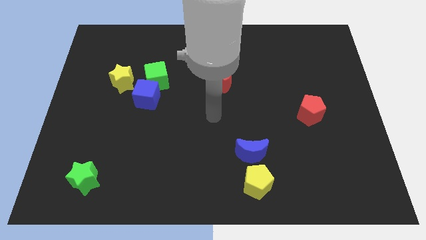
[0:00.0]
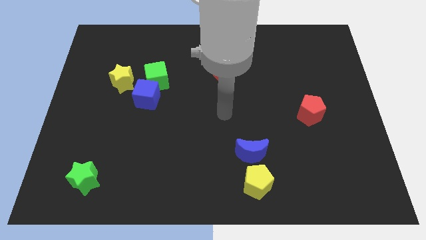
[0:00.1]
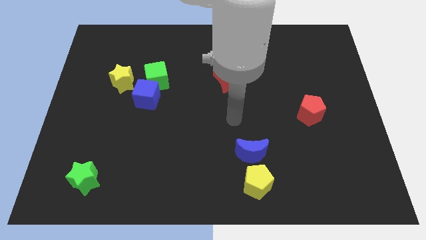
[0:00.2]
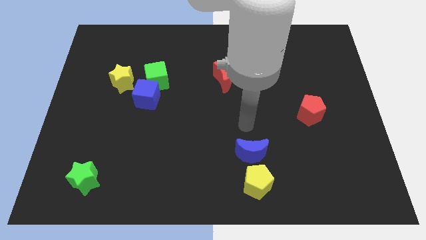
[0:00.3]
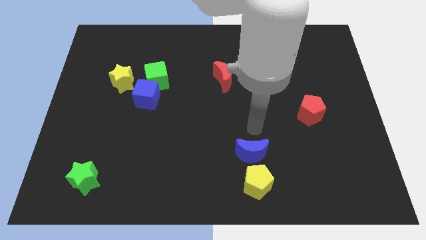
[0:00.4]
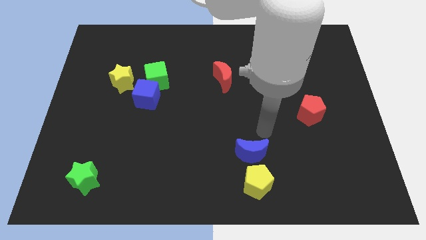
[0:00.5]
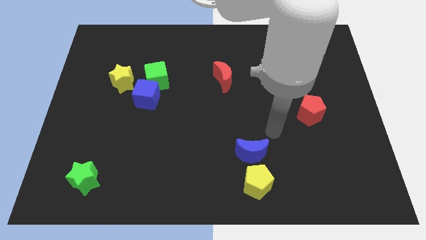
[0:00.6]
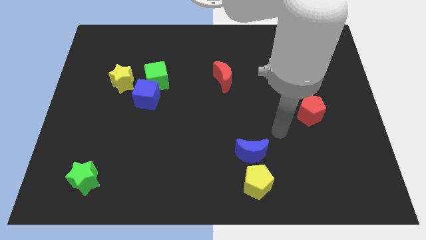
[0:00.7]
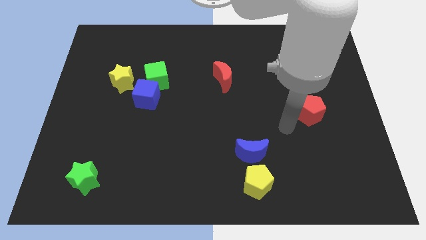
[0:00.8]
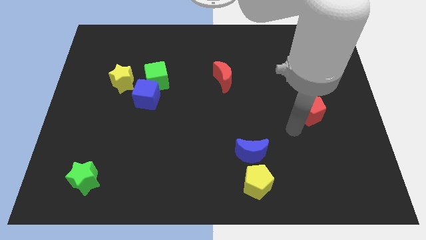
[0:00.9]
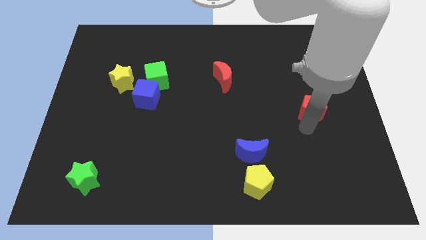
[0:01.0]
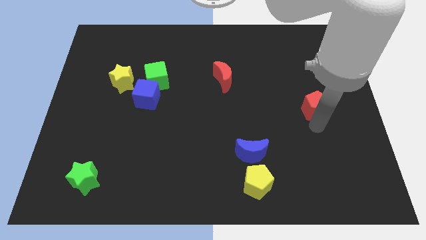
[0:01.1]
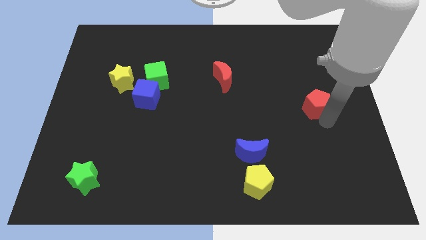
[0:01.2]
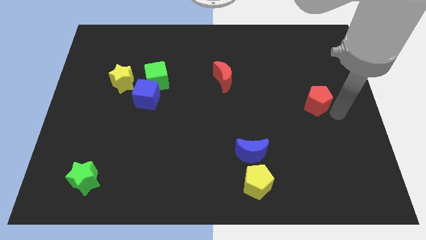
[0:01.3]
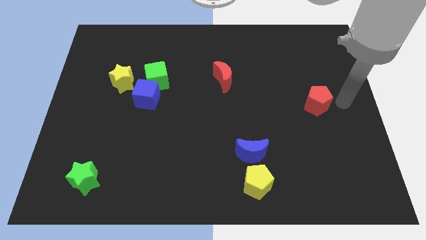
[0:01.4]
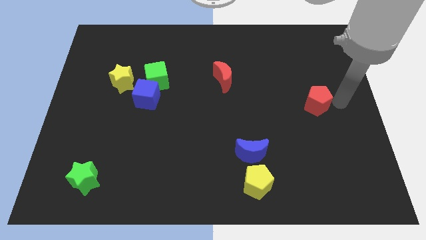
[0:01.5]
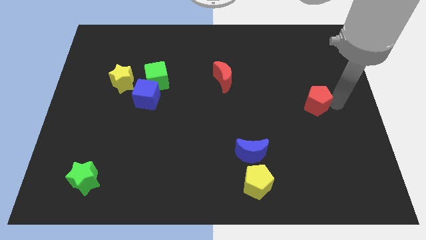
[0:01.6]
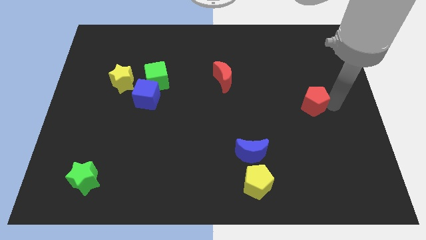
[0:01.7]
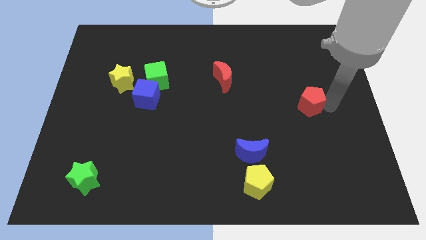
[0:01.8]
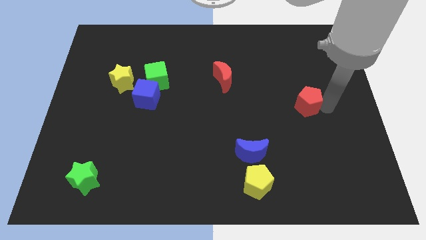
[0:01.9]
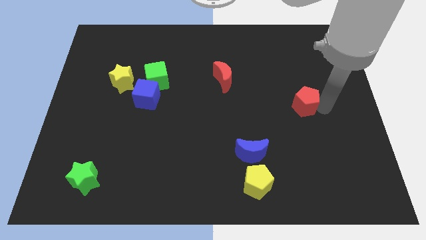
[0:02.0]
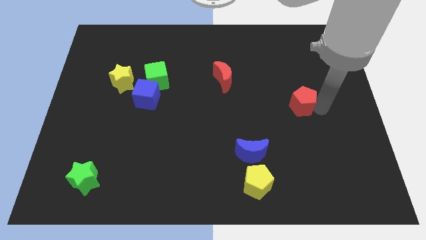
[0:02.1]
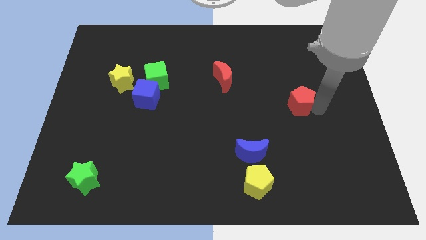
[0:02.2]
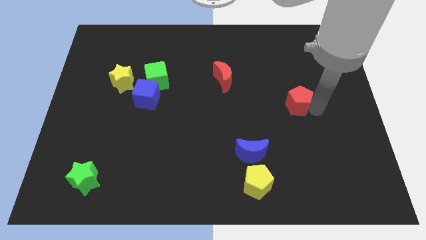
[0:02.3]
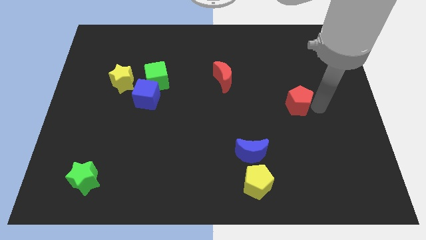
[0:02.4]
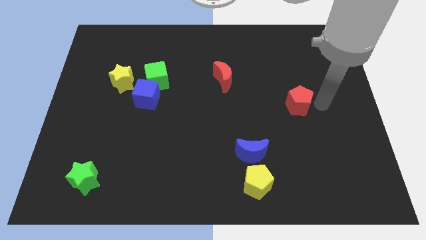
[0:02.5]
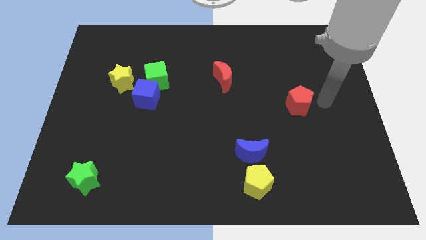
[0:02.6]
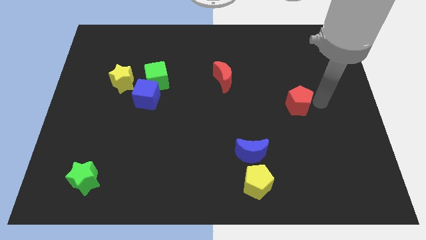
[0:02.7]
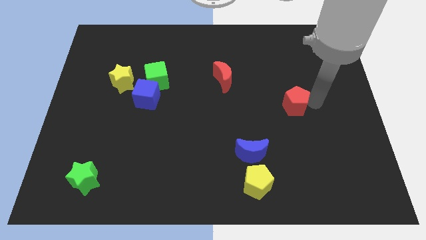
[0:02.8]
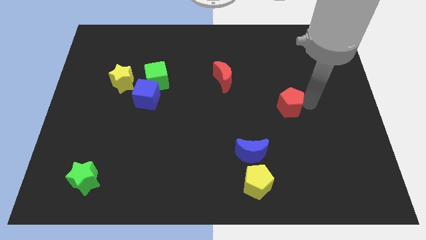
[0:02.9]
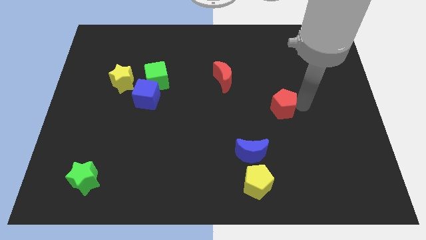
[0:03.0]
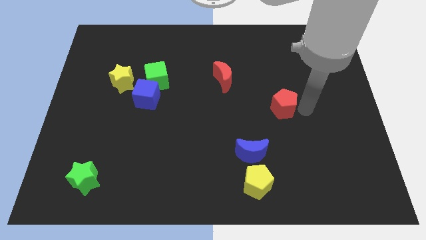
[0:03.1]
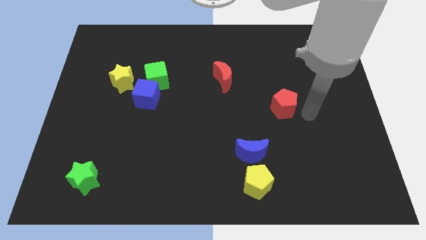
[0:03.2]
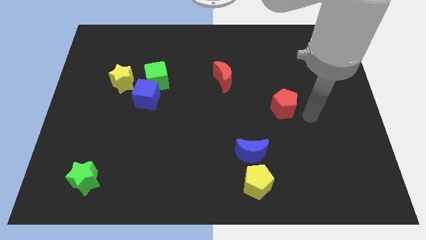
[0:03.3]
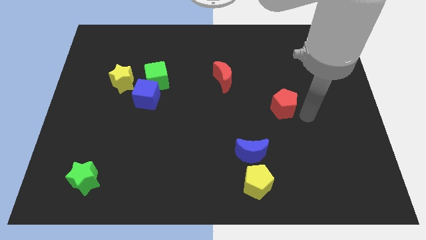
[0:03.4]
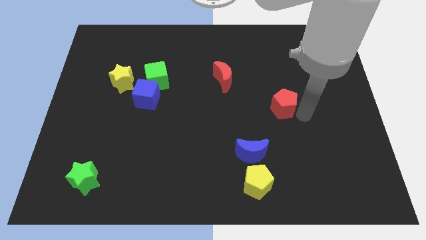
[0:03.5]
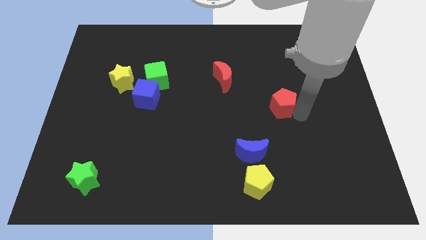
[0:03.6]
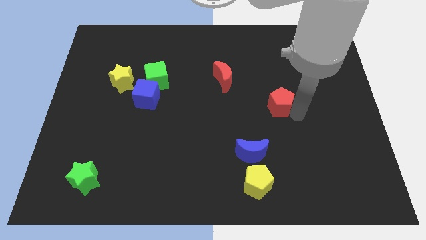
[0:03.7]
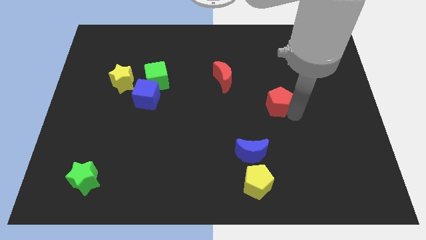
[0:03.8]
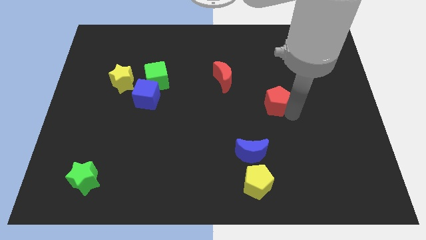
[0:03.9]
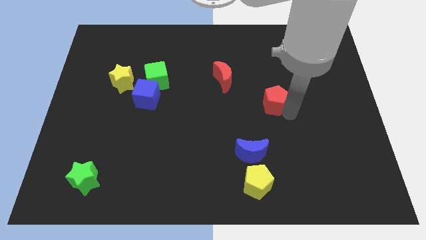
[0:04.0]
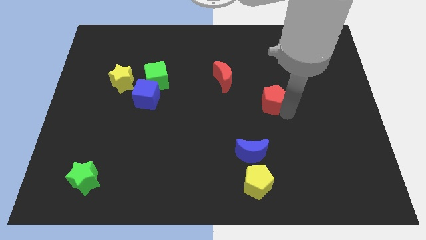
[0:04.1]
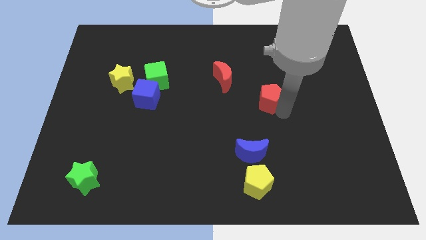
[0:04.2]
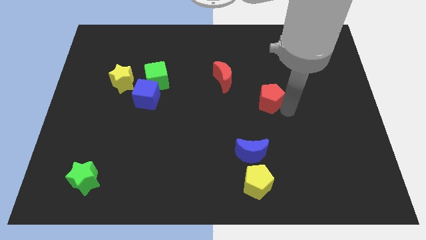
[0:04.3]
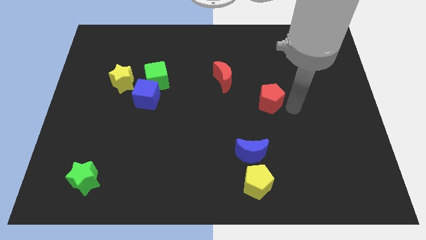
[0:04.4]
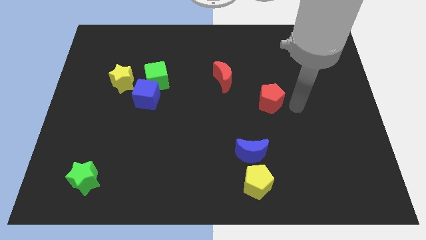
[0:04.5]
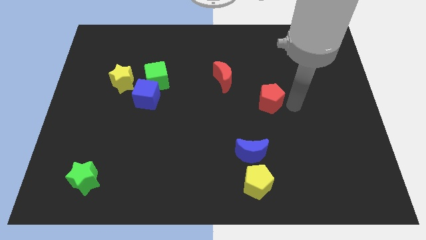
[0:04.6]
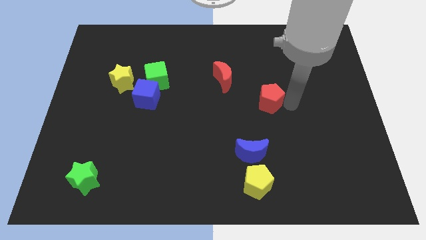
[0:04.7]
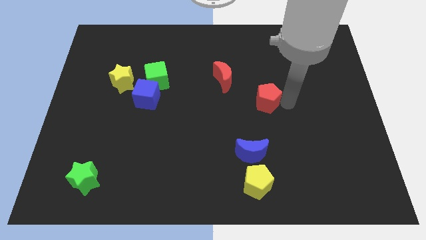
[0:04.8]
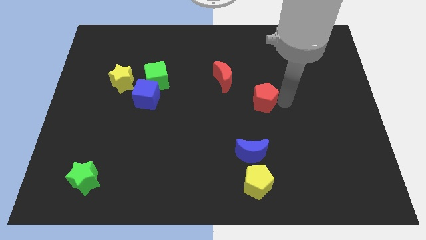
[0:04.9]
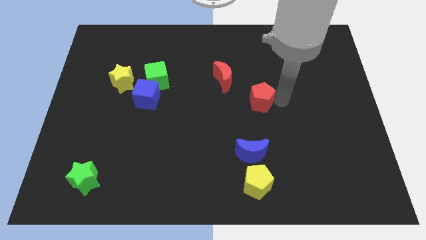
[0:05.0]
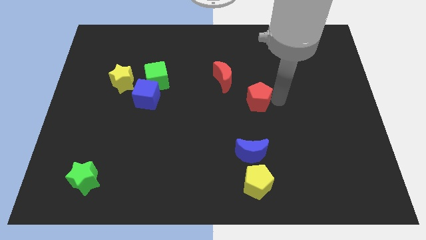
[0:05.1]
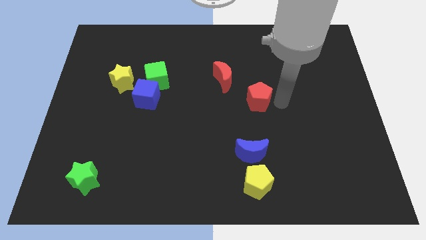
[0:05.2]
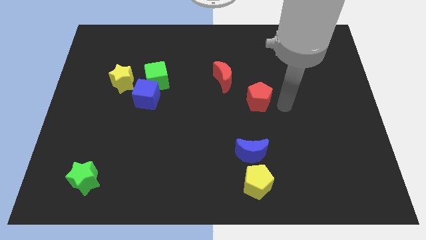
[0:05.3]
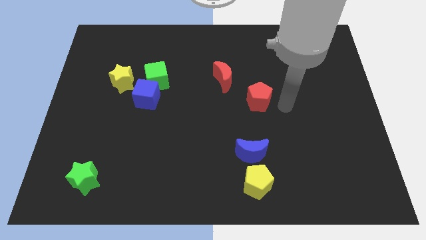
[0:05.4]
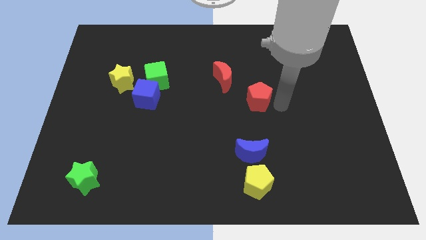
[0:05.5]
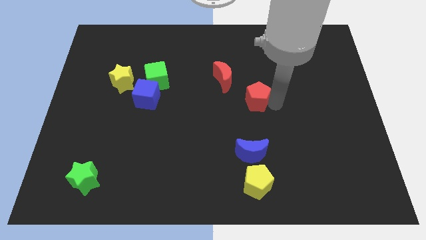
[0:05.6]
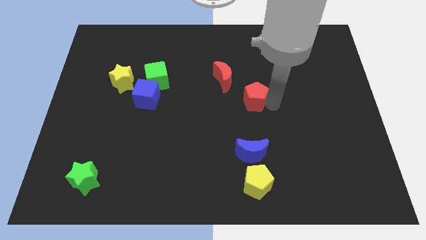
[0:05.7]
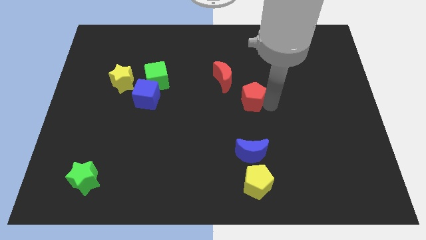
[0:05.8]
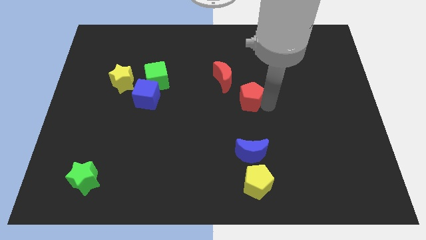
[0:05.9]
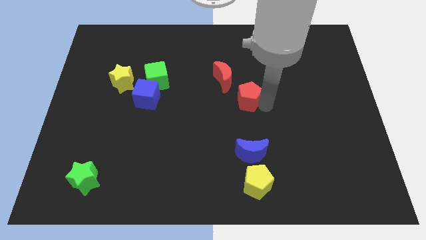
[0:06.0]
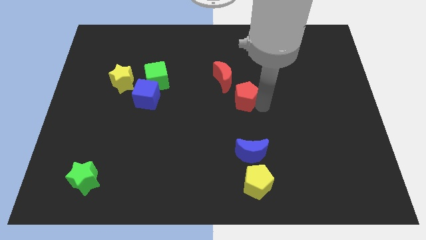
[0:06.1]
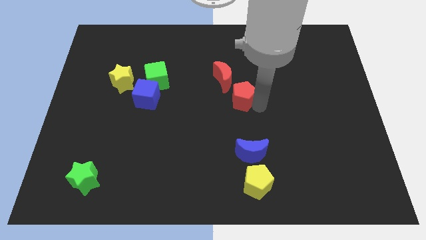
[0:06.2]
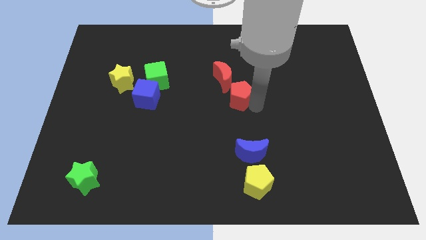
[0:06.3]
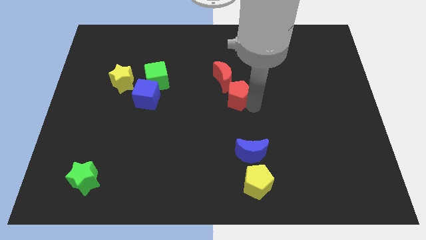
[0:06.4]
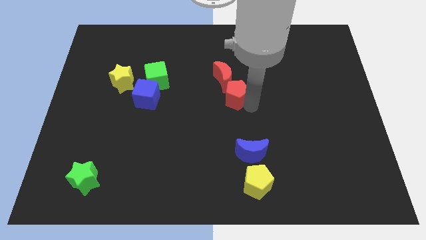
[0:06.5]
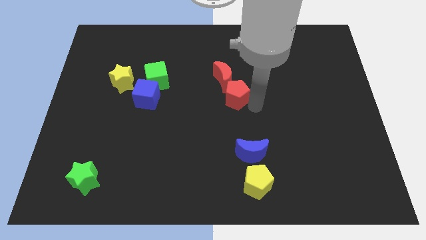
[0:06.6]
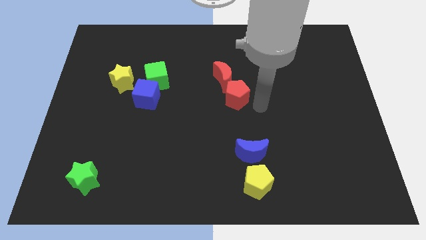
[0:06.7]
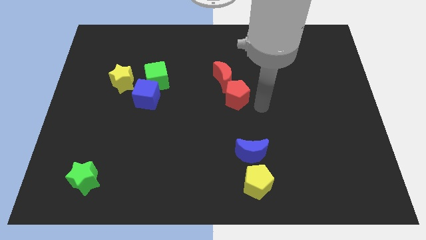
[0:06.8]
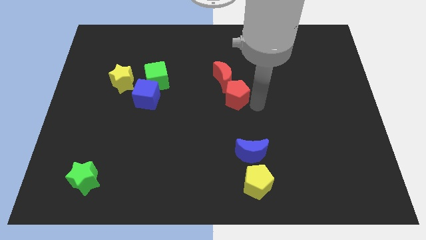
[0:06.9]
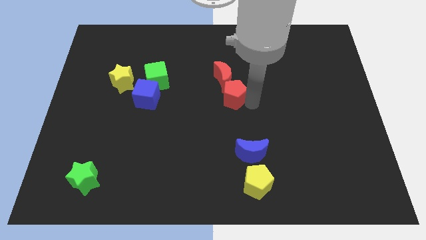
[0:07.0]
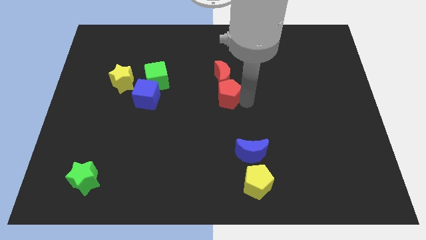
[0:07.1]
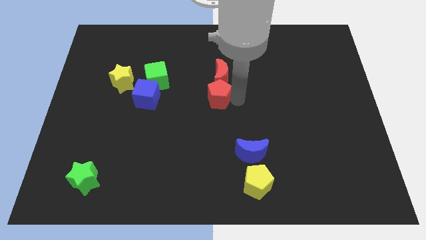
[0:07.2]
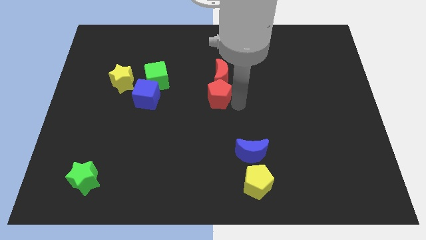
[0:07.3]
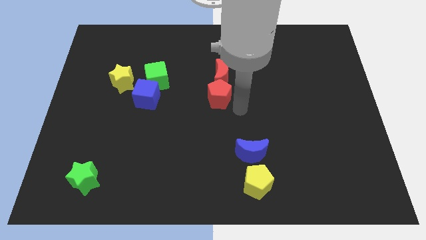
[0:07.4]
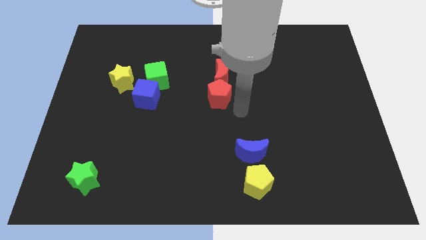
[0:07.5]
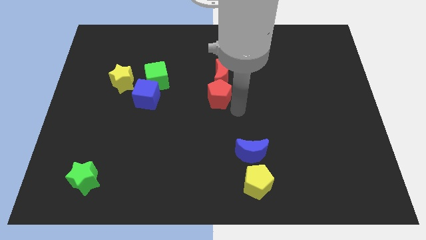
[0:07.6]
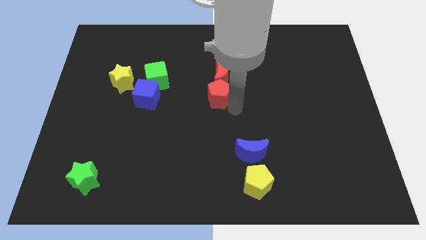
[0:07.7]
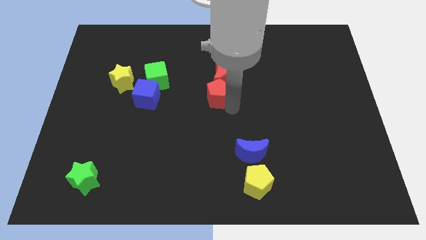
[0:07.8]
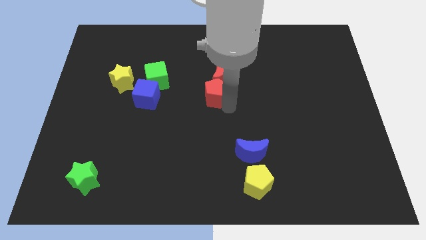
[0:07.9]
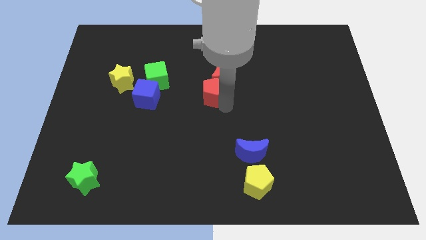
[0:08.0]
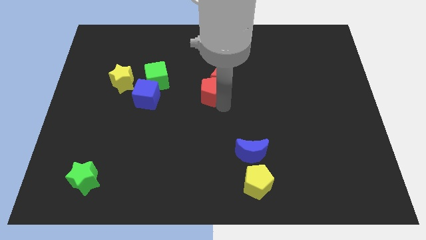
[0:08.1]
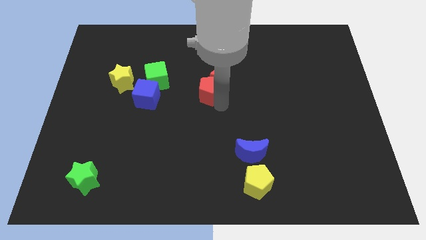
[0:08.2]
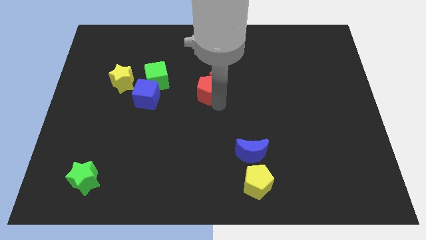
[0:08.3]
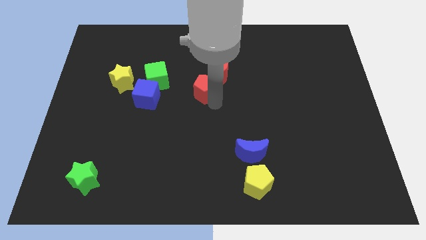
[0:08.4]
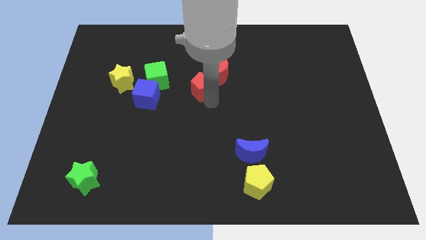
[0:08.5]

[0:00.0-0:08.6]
push the red pentagon just left of the red moon
